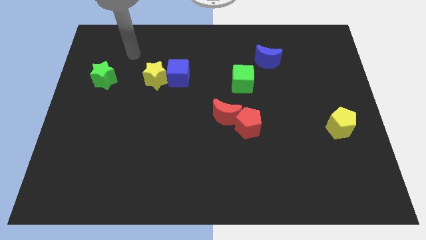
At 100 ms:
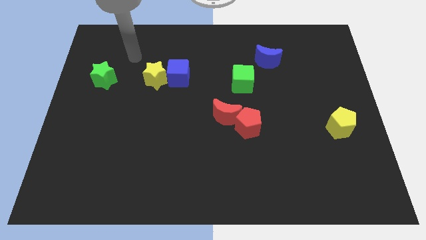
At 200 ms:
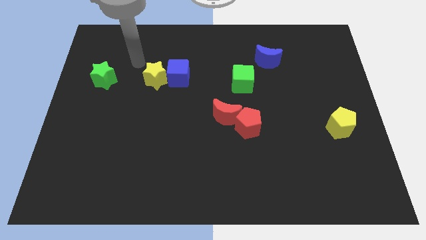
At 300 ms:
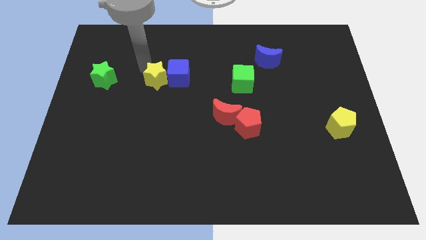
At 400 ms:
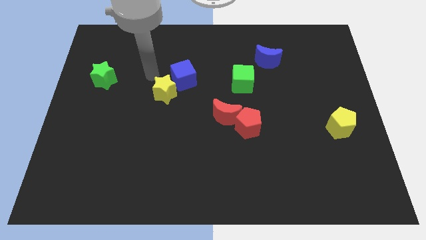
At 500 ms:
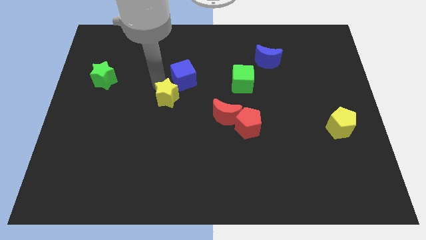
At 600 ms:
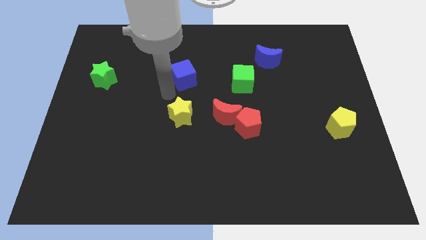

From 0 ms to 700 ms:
pull the blue cube apart from the yellow star

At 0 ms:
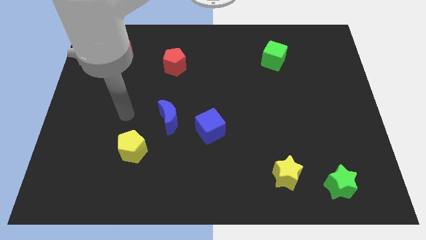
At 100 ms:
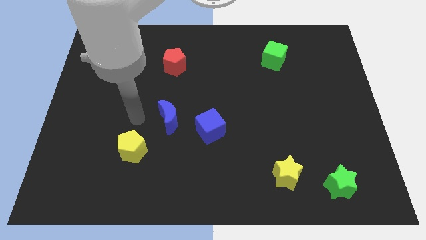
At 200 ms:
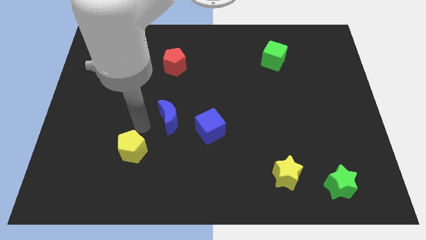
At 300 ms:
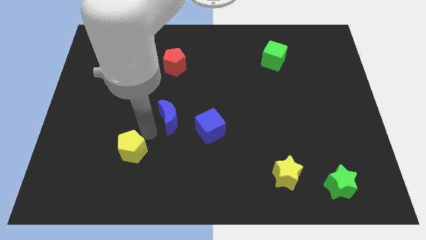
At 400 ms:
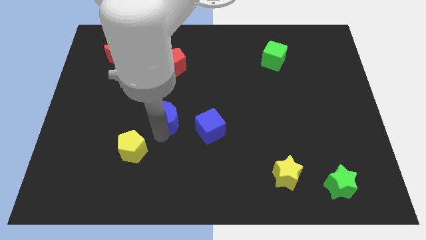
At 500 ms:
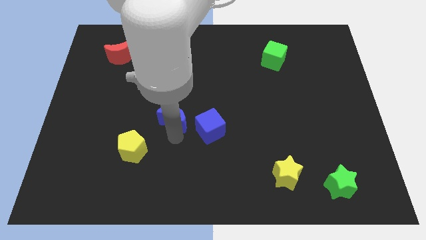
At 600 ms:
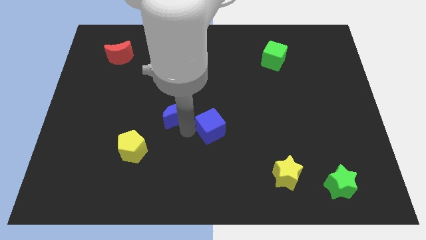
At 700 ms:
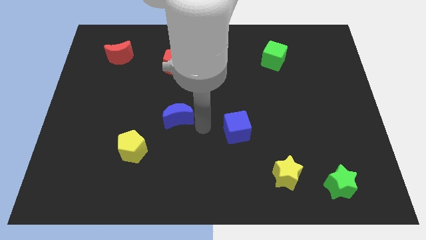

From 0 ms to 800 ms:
pull the blue moon apart from the blue cube

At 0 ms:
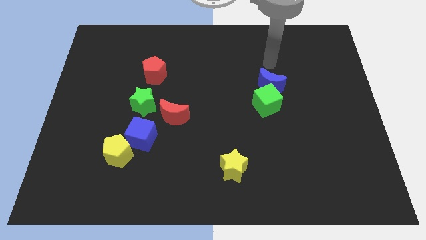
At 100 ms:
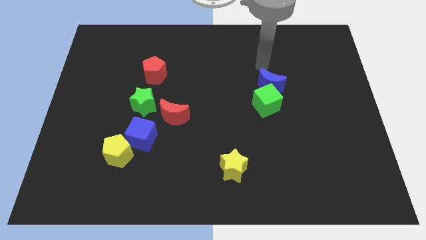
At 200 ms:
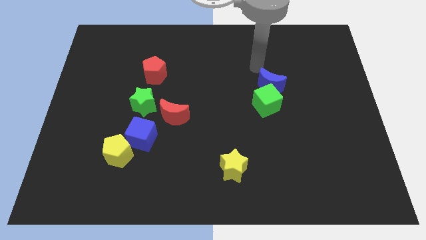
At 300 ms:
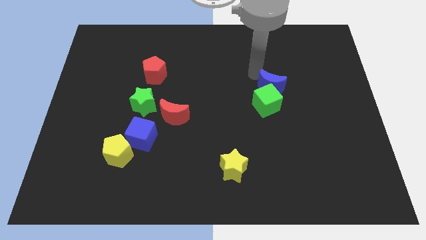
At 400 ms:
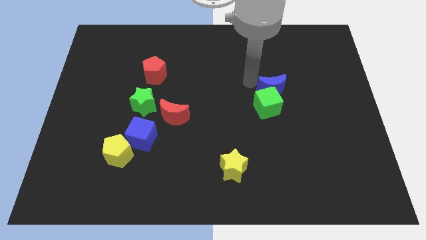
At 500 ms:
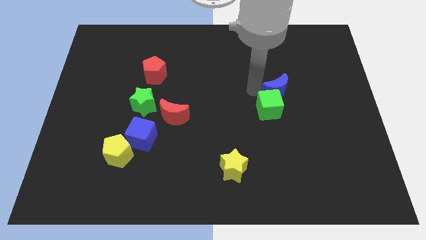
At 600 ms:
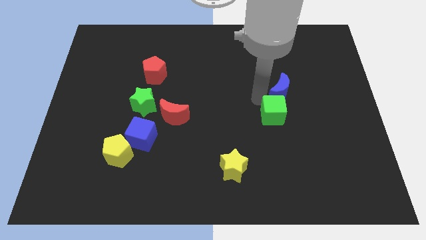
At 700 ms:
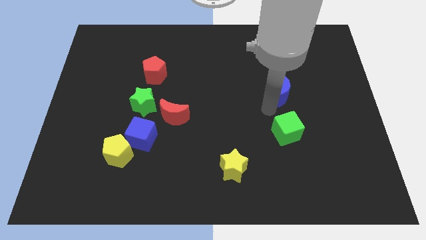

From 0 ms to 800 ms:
move the blue moon away from the green cube

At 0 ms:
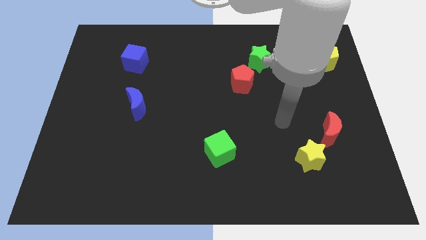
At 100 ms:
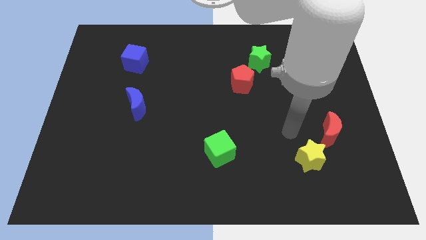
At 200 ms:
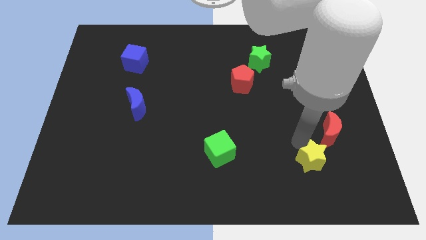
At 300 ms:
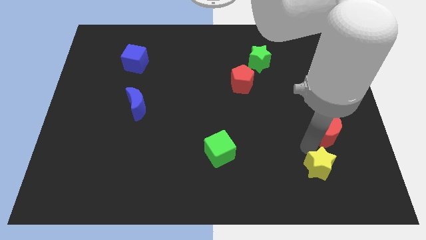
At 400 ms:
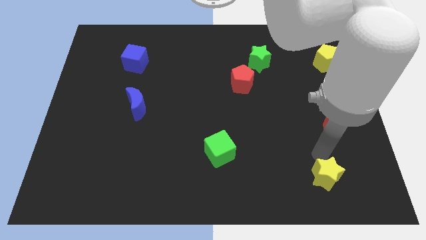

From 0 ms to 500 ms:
move the red moon away from the yellow star

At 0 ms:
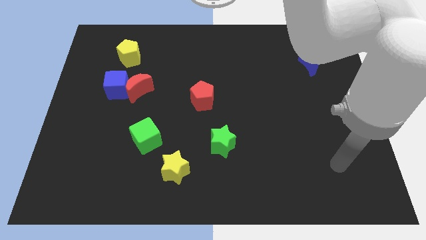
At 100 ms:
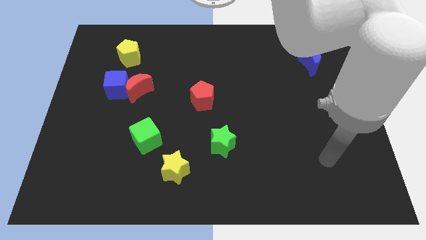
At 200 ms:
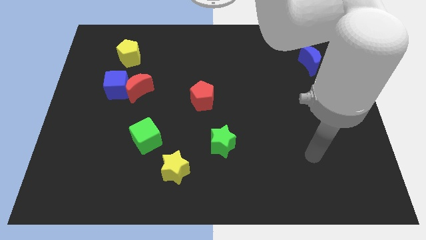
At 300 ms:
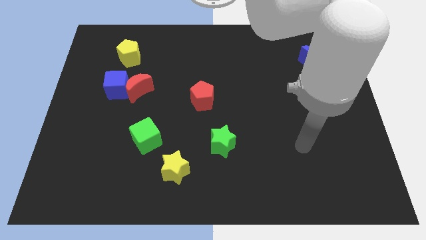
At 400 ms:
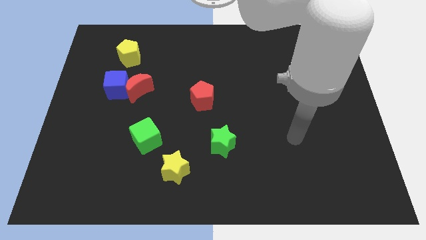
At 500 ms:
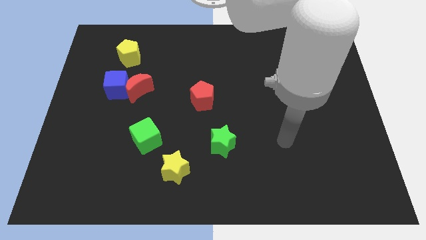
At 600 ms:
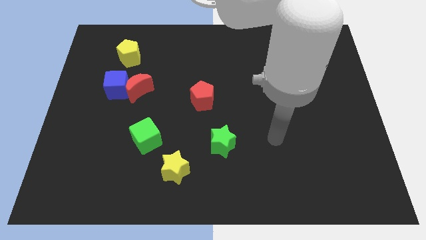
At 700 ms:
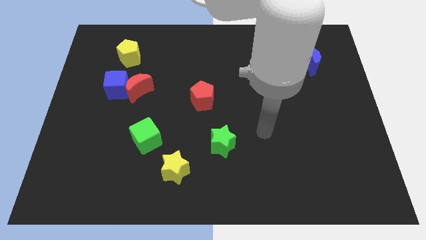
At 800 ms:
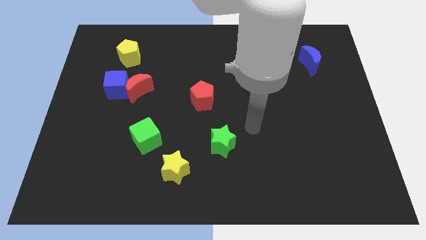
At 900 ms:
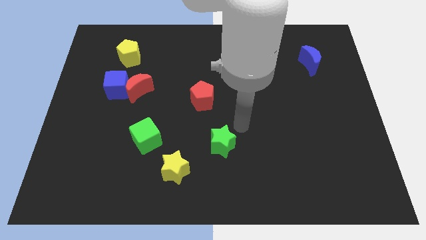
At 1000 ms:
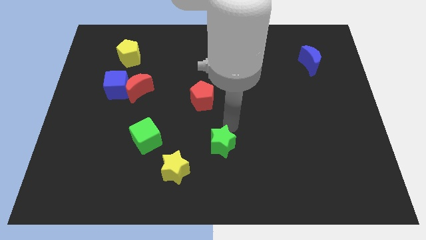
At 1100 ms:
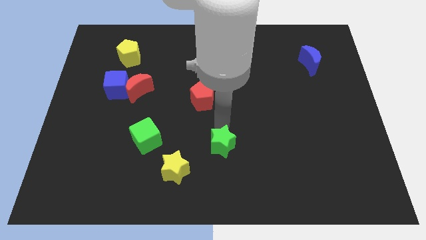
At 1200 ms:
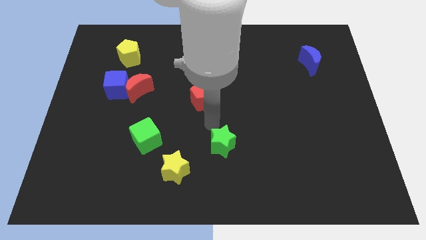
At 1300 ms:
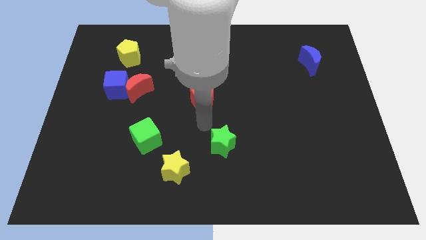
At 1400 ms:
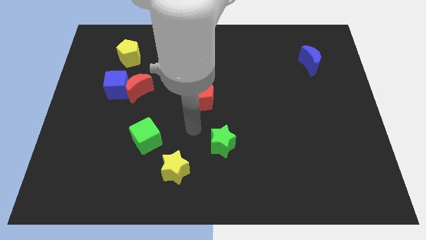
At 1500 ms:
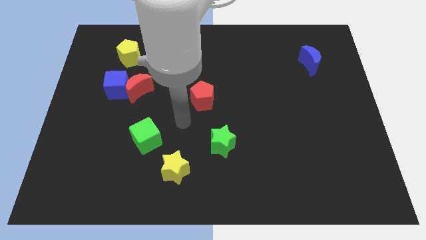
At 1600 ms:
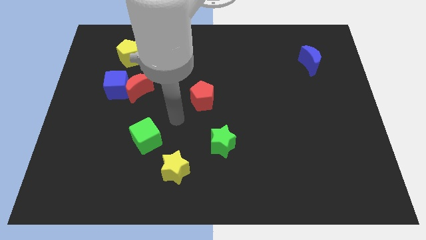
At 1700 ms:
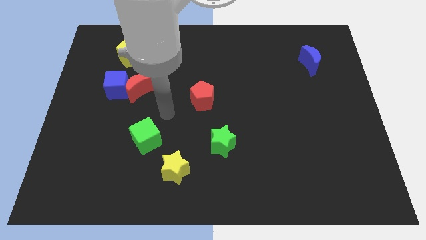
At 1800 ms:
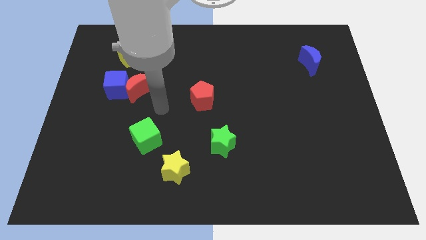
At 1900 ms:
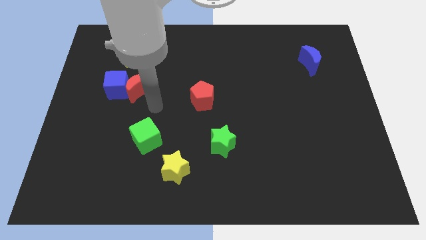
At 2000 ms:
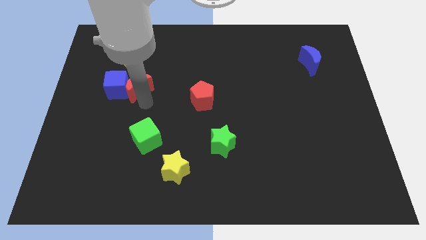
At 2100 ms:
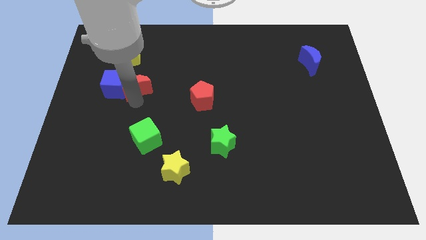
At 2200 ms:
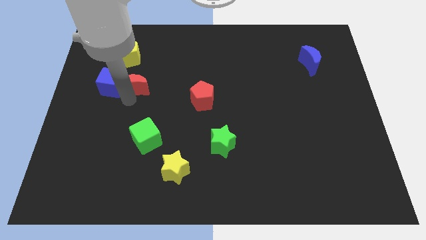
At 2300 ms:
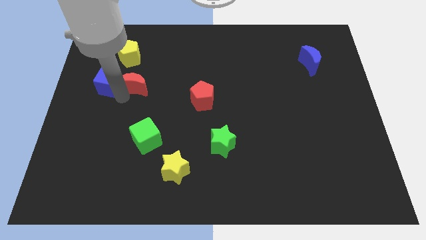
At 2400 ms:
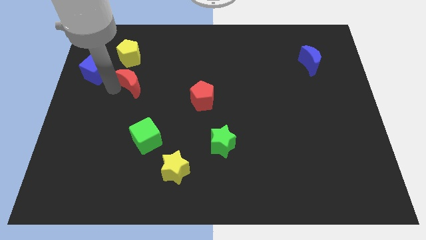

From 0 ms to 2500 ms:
separate the red moon from the blue cube

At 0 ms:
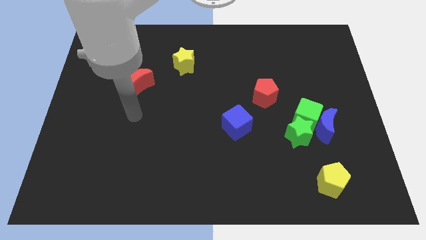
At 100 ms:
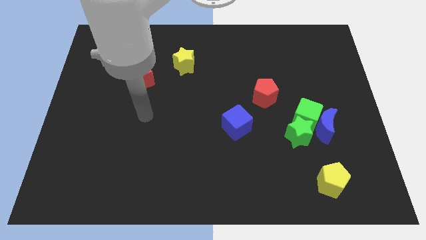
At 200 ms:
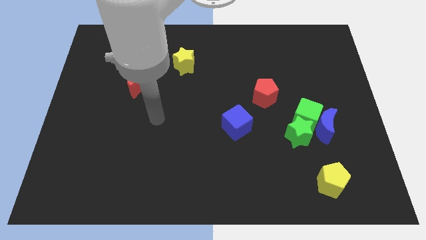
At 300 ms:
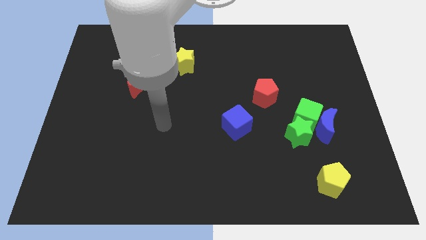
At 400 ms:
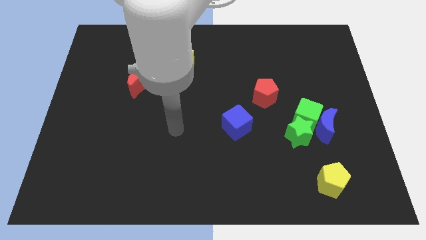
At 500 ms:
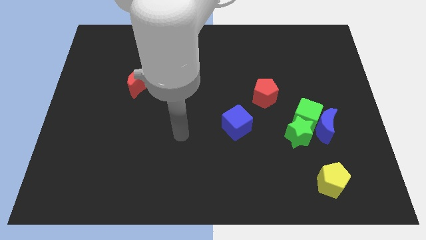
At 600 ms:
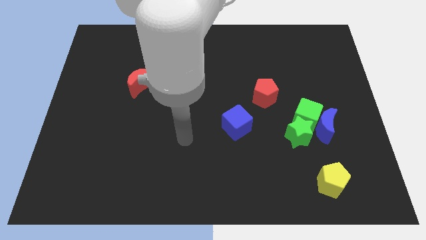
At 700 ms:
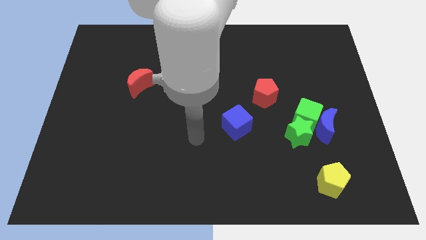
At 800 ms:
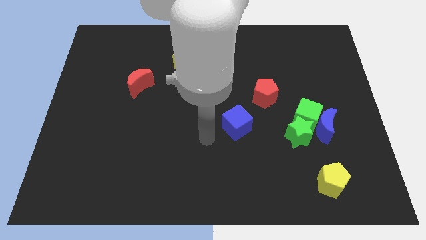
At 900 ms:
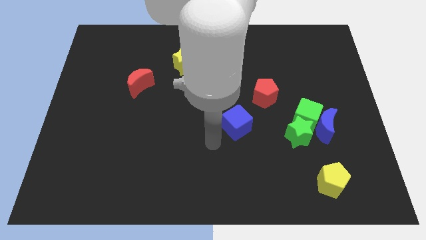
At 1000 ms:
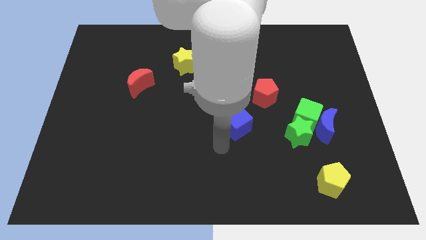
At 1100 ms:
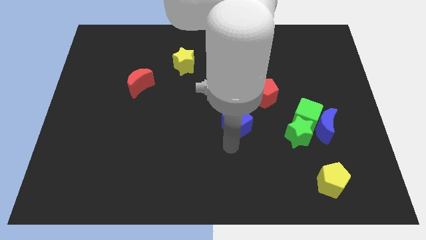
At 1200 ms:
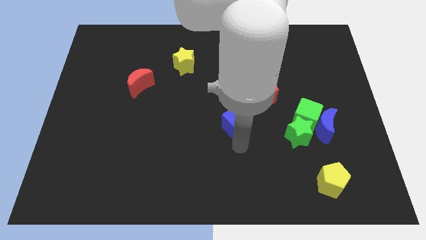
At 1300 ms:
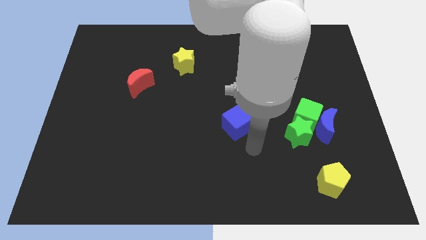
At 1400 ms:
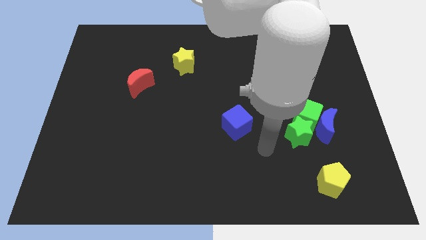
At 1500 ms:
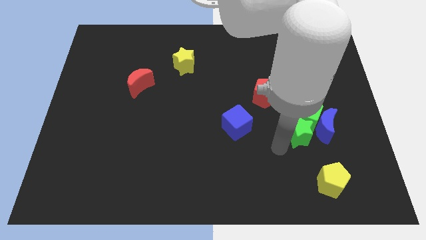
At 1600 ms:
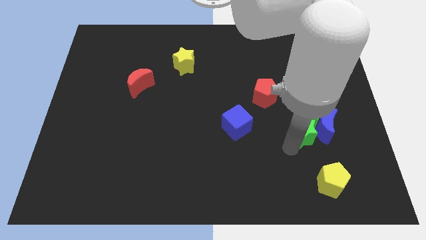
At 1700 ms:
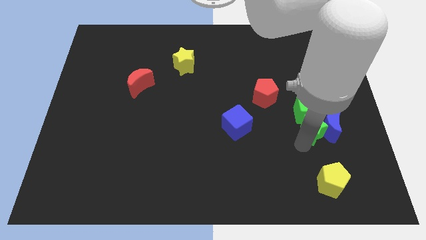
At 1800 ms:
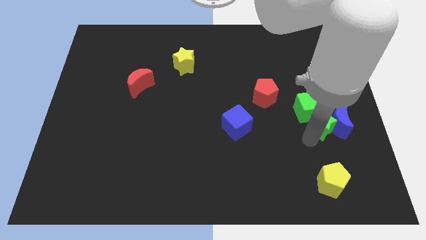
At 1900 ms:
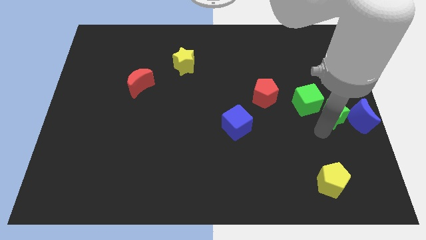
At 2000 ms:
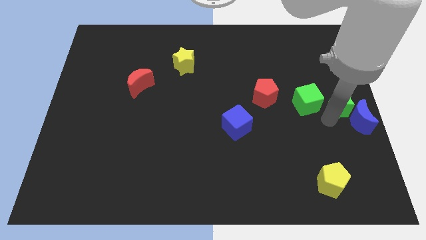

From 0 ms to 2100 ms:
separate the green cube from the blue moon and green star

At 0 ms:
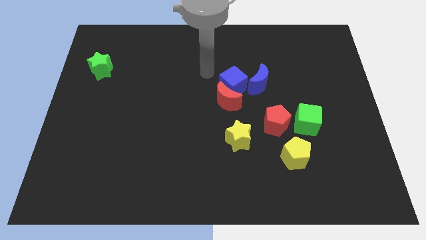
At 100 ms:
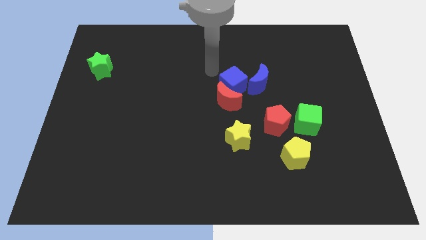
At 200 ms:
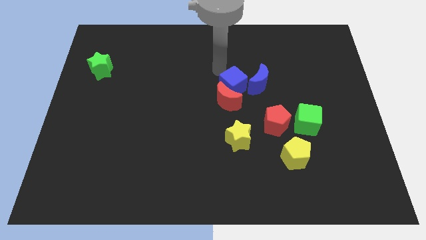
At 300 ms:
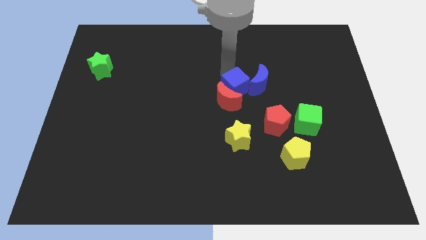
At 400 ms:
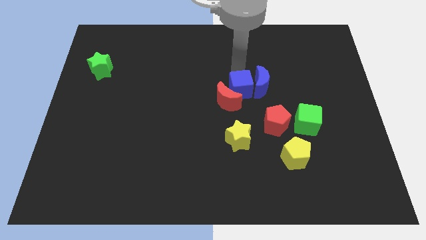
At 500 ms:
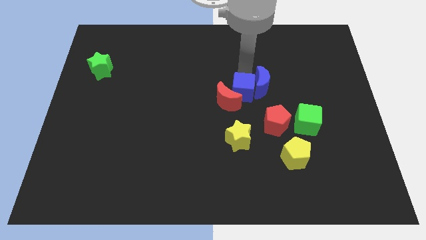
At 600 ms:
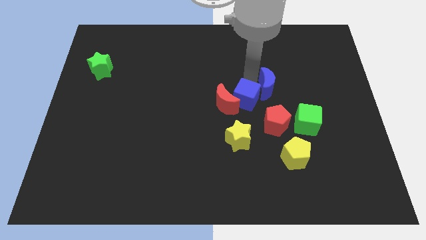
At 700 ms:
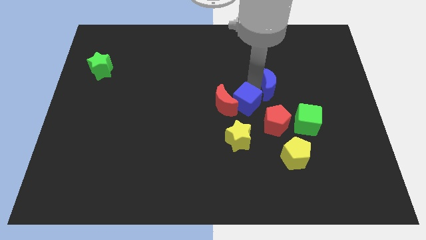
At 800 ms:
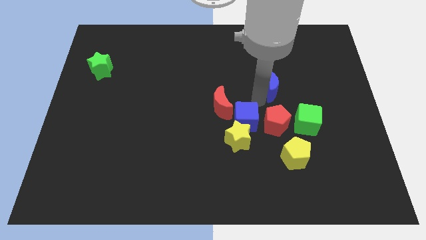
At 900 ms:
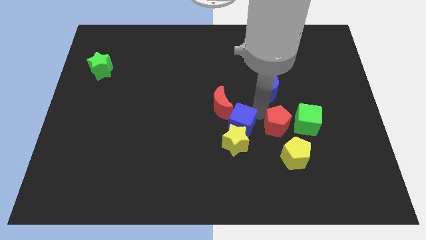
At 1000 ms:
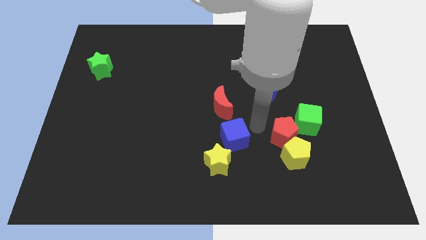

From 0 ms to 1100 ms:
move the blue cube away from the red moon and blue moon

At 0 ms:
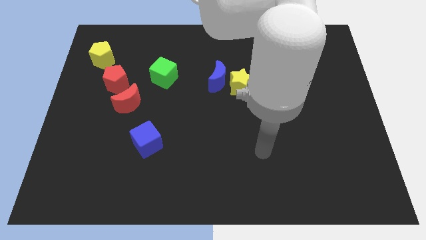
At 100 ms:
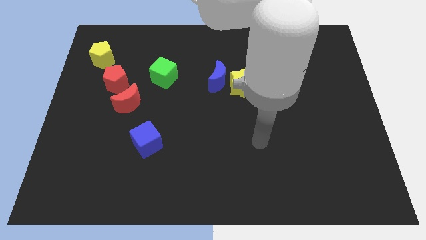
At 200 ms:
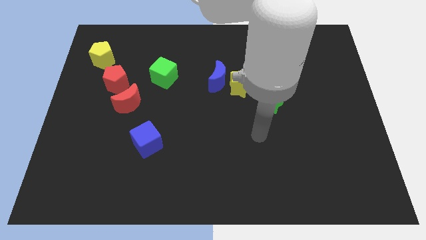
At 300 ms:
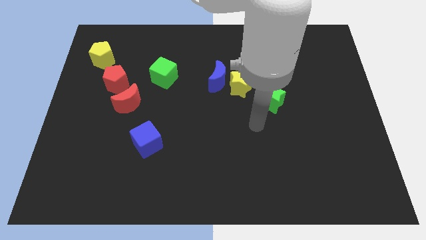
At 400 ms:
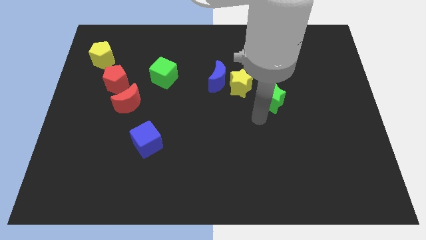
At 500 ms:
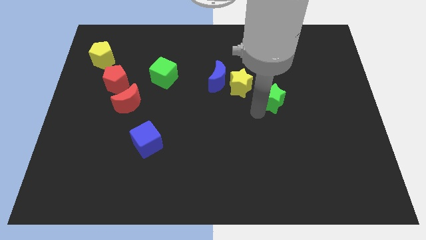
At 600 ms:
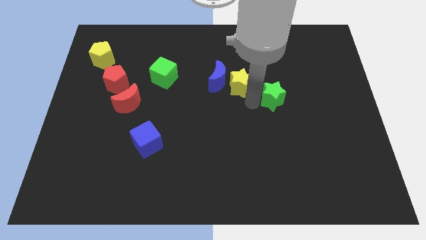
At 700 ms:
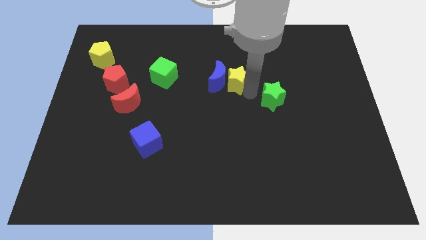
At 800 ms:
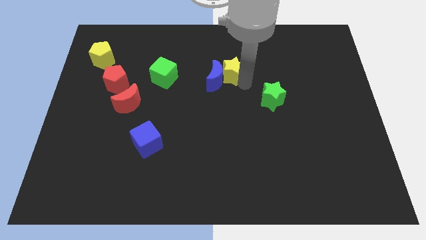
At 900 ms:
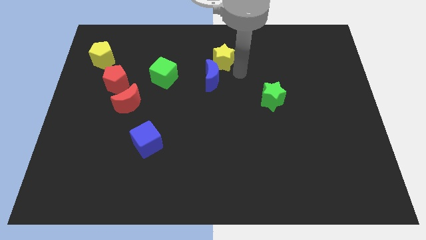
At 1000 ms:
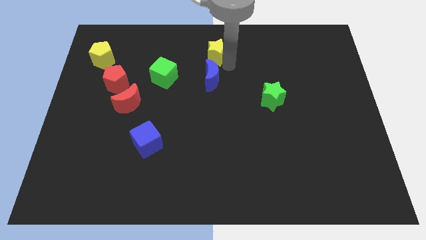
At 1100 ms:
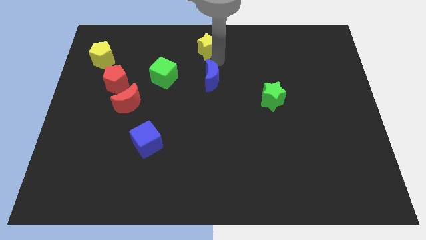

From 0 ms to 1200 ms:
move the blue moon away from the yellow star
